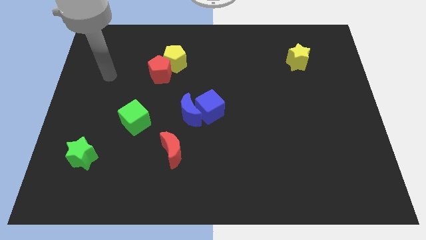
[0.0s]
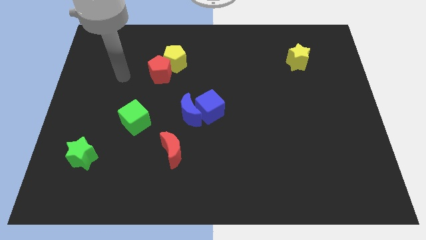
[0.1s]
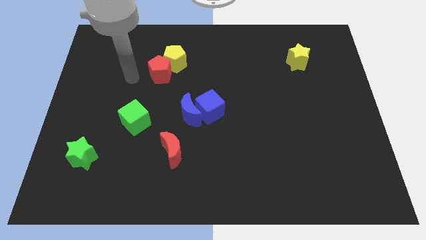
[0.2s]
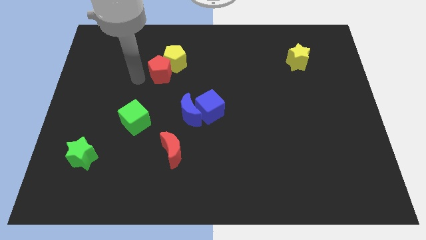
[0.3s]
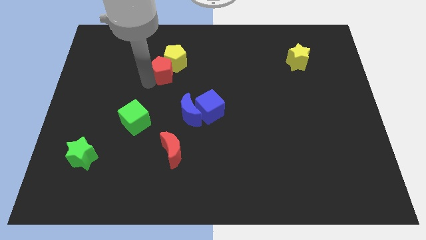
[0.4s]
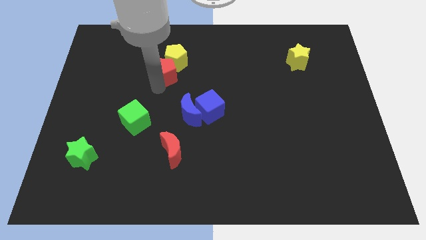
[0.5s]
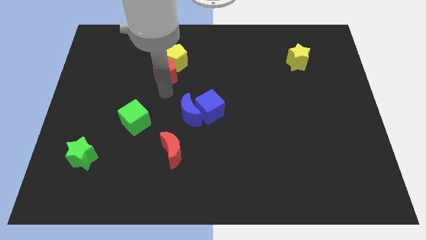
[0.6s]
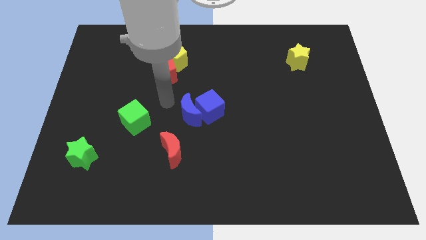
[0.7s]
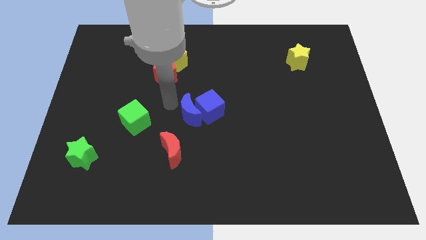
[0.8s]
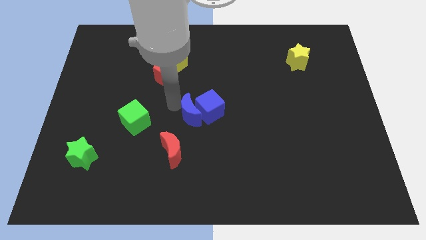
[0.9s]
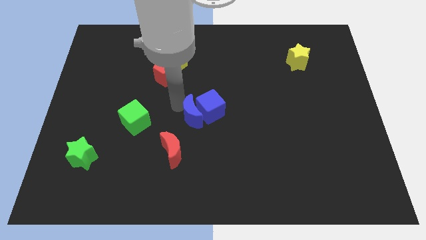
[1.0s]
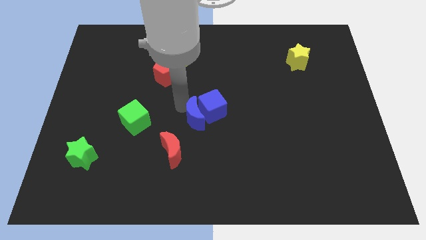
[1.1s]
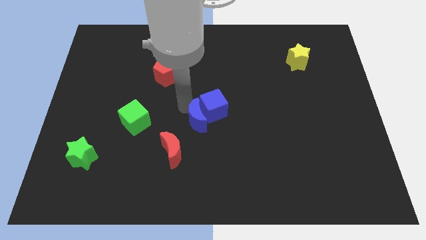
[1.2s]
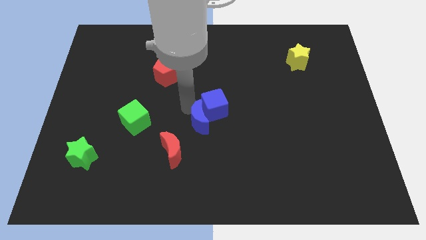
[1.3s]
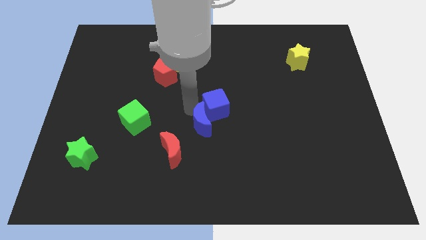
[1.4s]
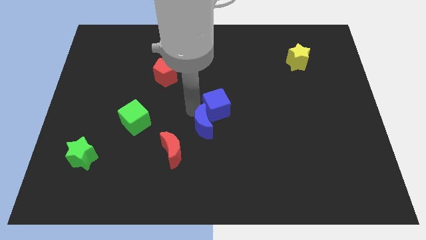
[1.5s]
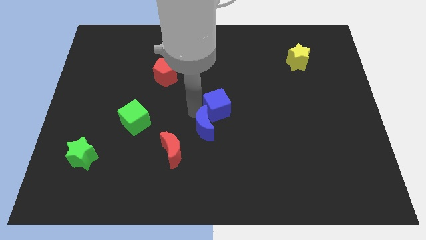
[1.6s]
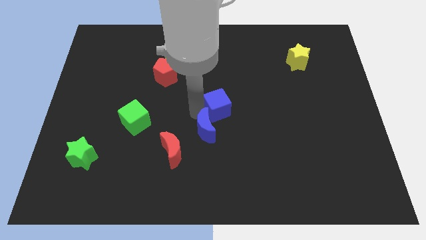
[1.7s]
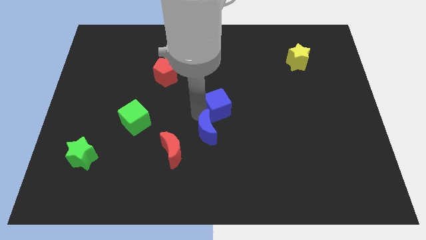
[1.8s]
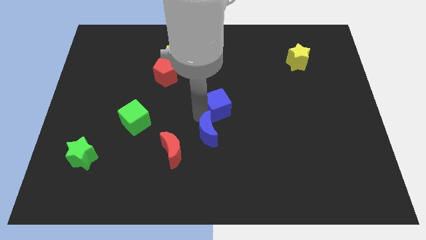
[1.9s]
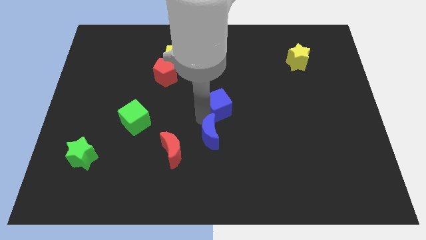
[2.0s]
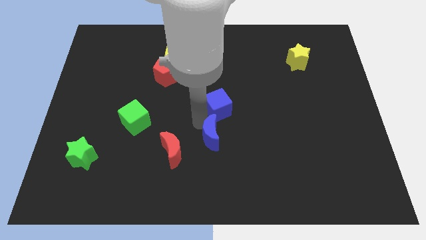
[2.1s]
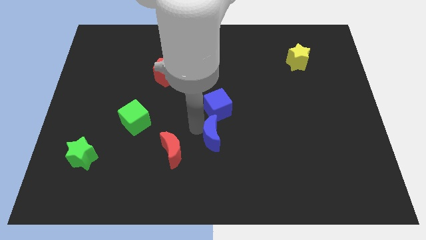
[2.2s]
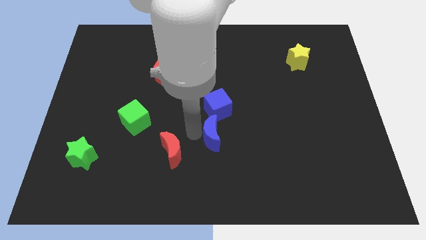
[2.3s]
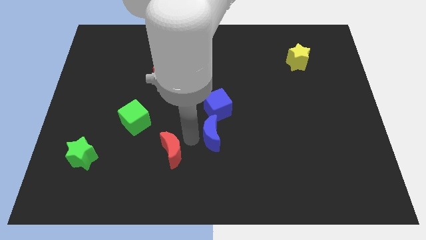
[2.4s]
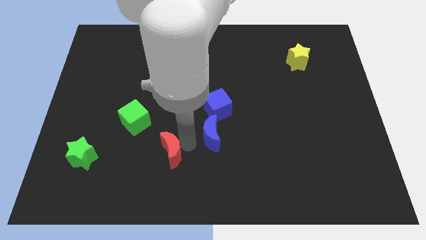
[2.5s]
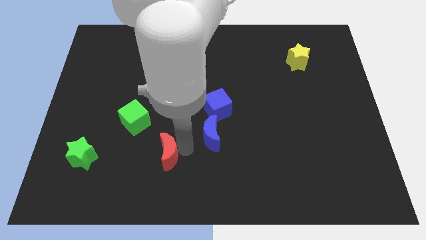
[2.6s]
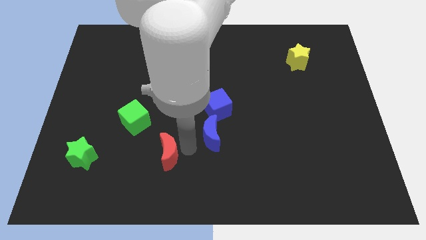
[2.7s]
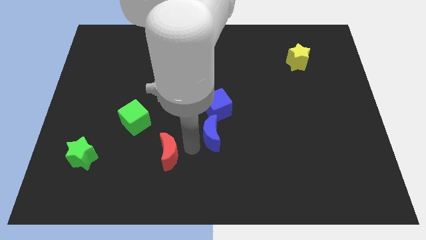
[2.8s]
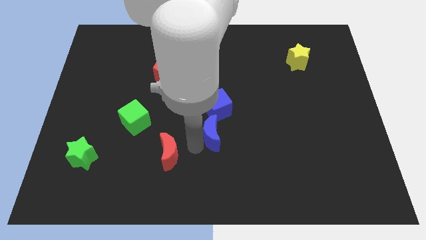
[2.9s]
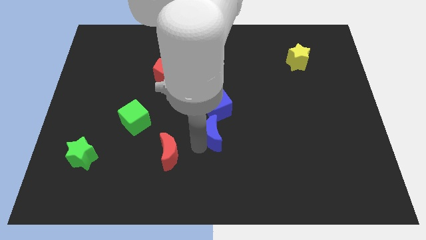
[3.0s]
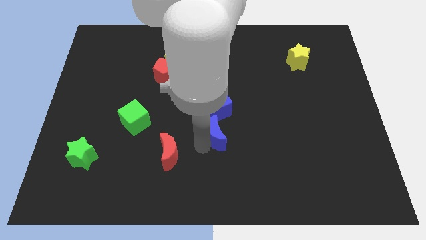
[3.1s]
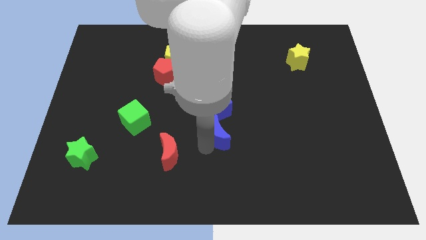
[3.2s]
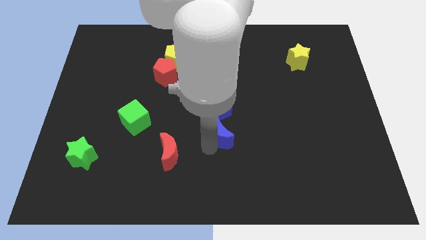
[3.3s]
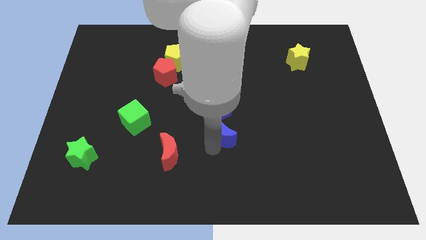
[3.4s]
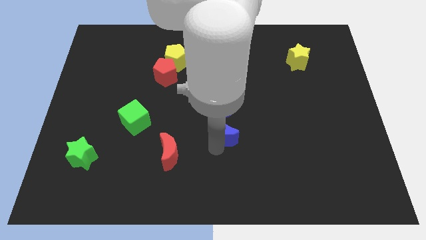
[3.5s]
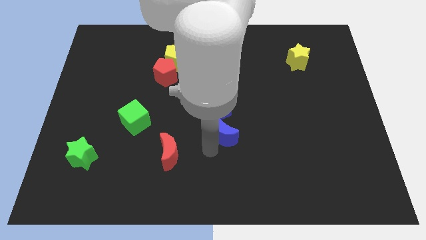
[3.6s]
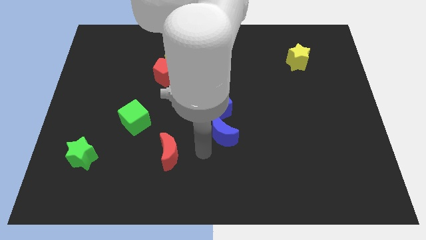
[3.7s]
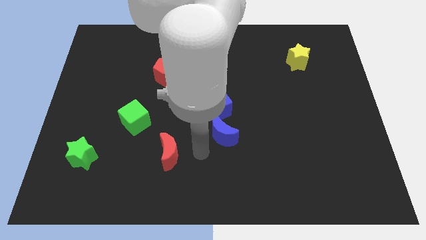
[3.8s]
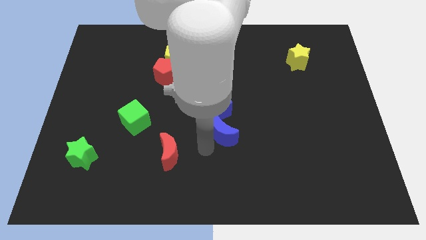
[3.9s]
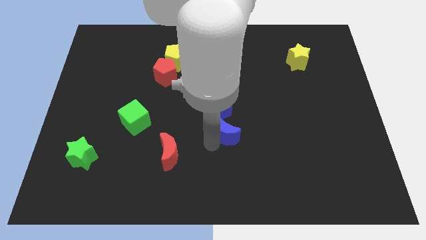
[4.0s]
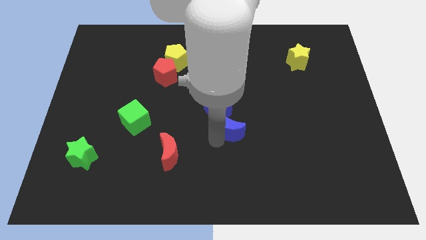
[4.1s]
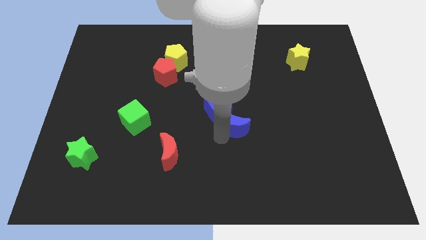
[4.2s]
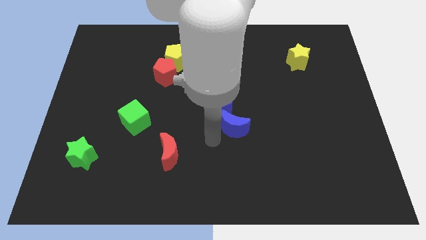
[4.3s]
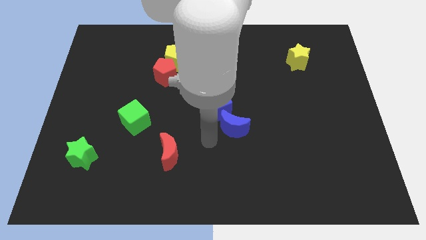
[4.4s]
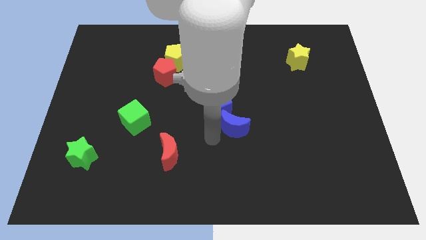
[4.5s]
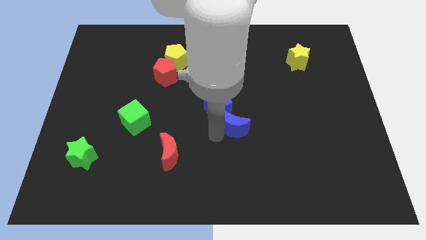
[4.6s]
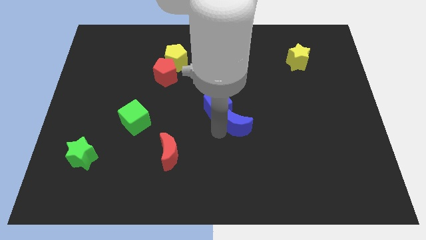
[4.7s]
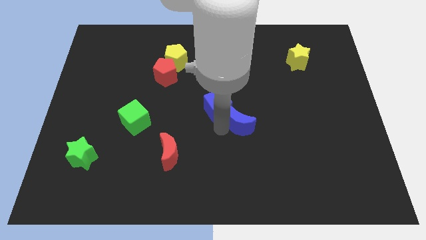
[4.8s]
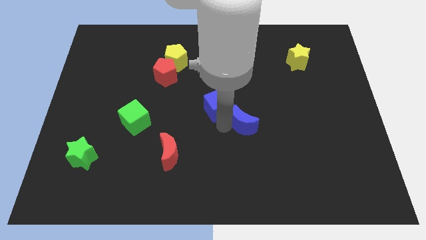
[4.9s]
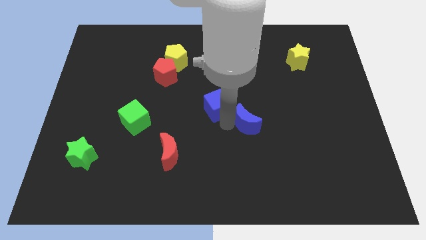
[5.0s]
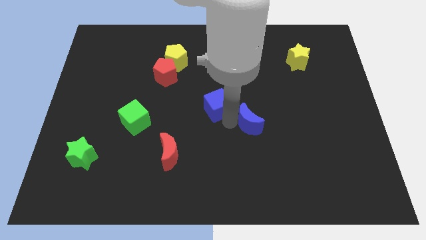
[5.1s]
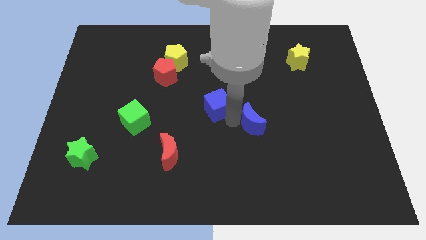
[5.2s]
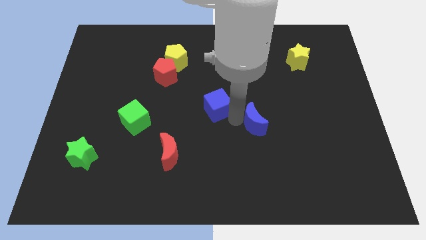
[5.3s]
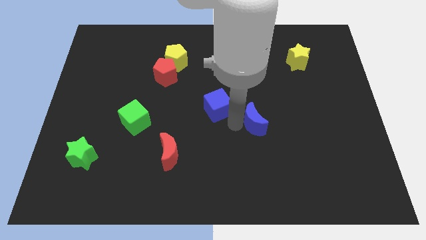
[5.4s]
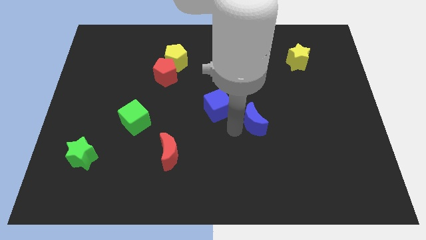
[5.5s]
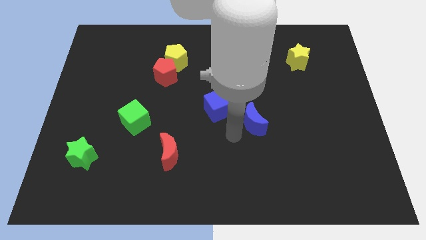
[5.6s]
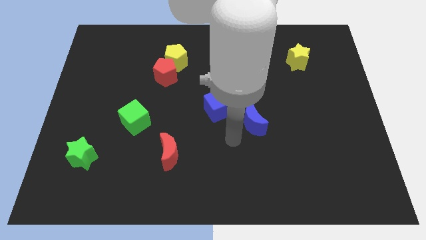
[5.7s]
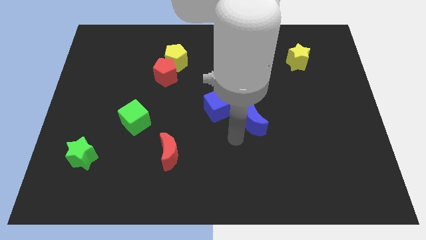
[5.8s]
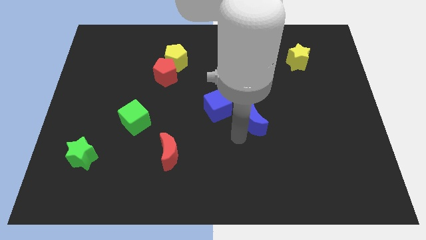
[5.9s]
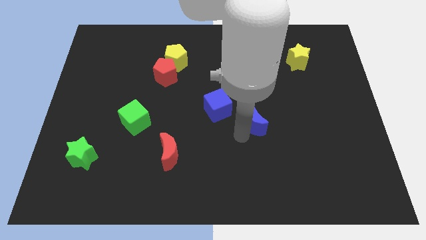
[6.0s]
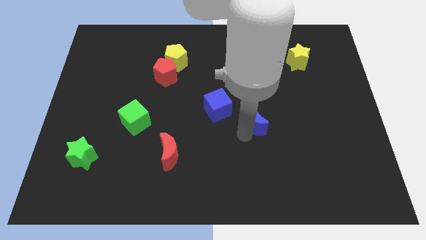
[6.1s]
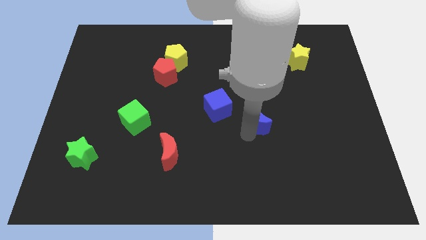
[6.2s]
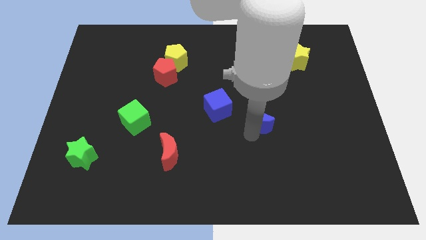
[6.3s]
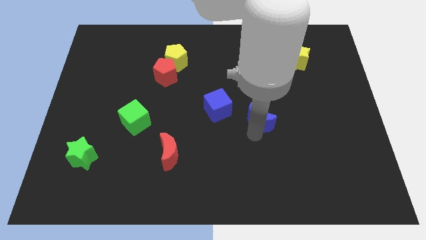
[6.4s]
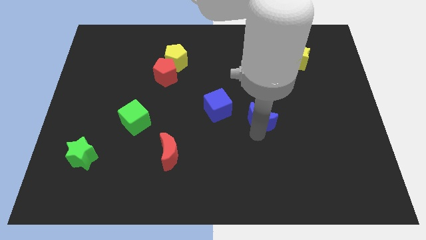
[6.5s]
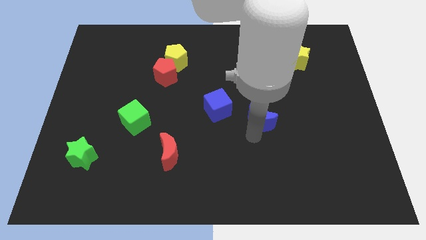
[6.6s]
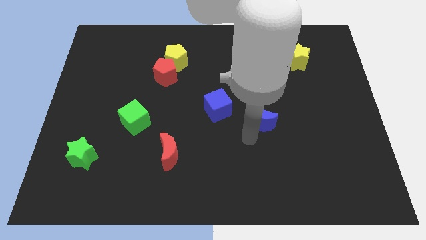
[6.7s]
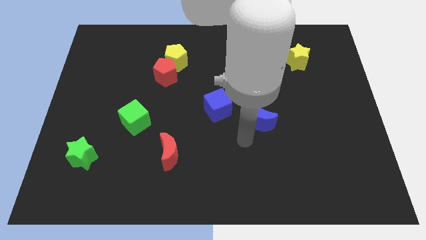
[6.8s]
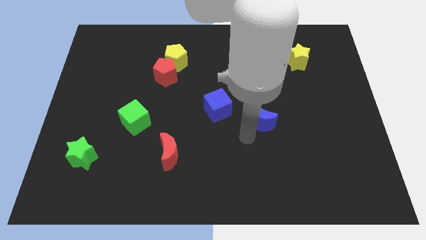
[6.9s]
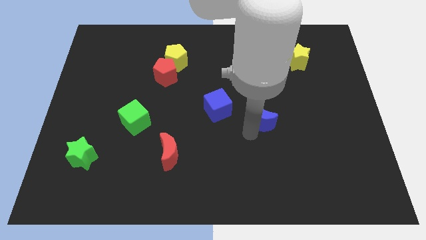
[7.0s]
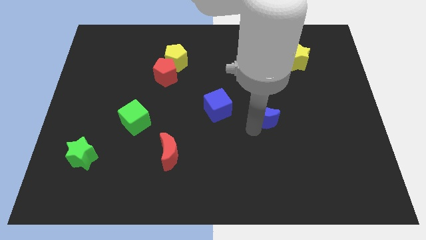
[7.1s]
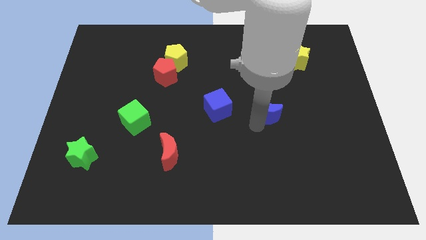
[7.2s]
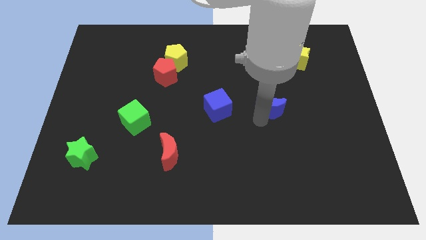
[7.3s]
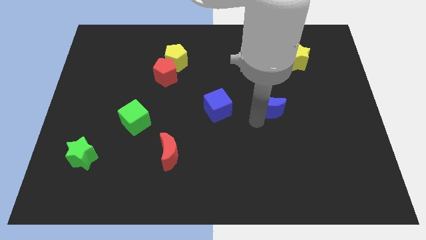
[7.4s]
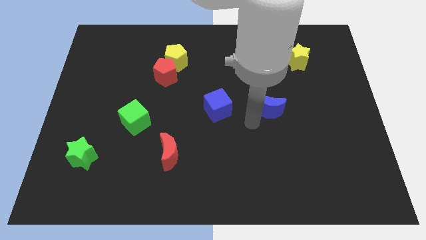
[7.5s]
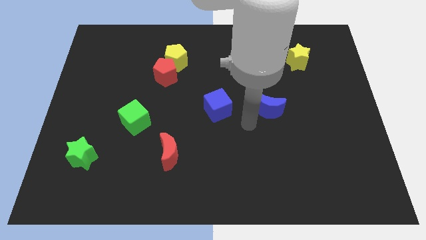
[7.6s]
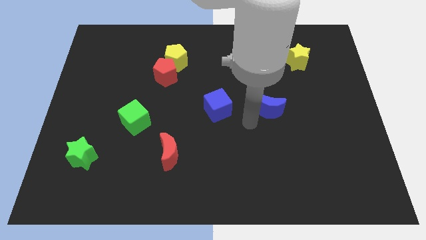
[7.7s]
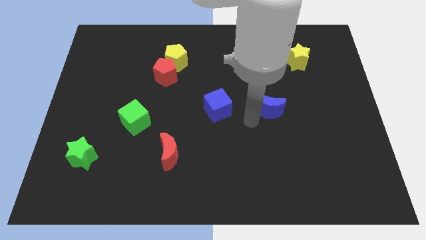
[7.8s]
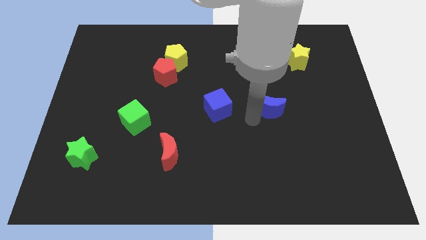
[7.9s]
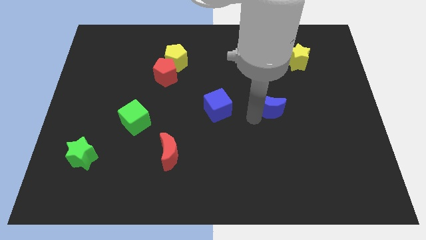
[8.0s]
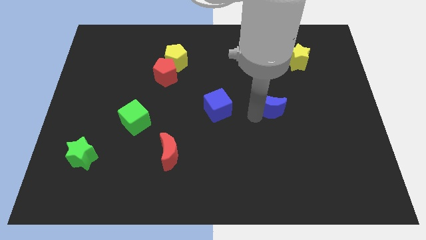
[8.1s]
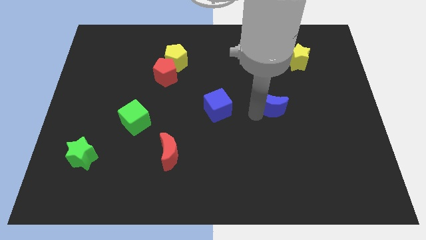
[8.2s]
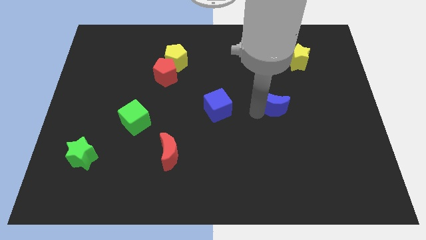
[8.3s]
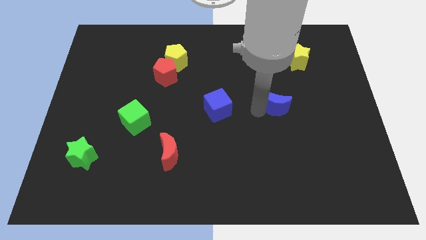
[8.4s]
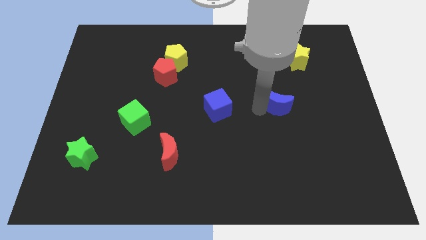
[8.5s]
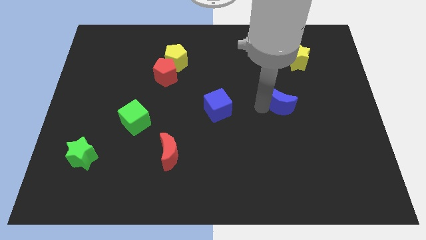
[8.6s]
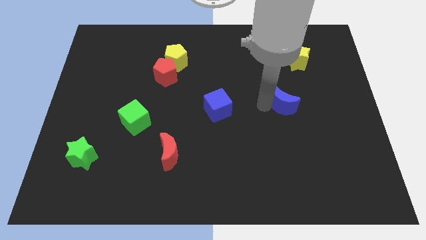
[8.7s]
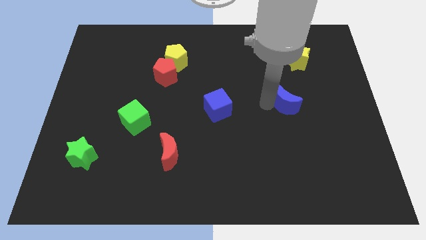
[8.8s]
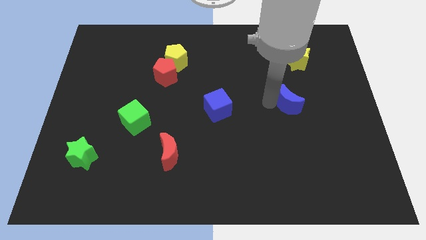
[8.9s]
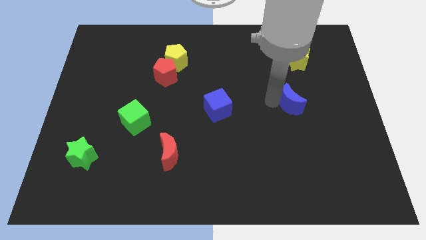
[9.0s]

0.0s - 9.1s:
push the blue moon to the bottom side of the yellow star
